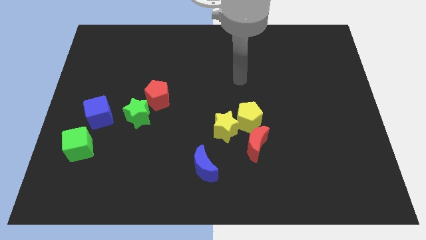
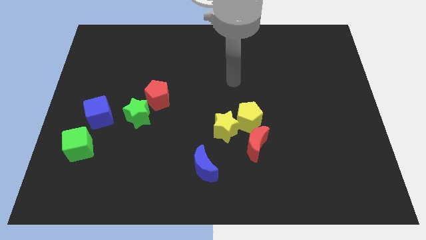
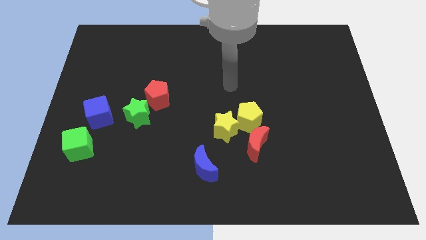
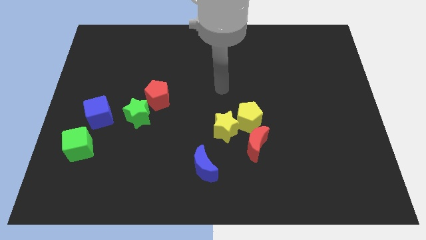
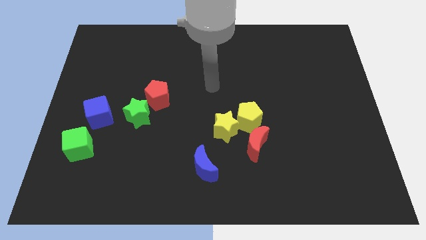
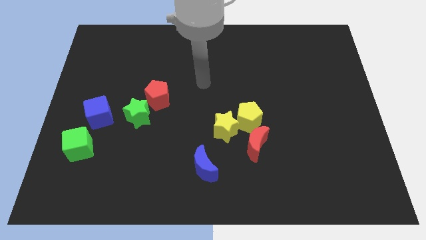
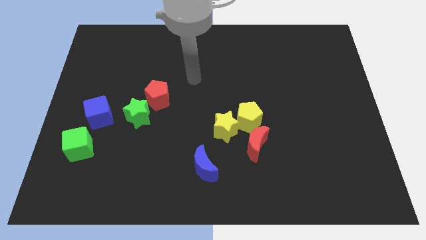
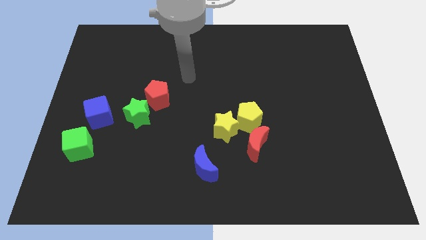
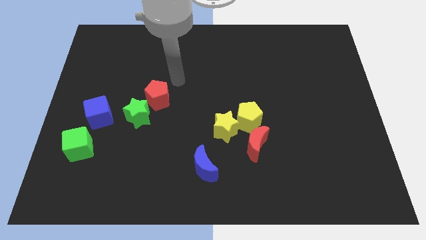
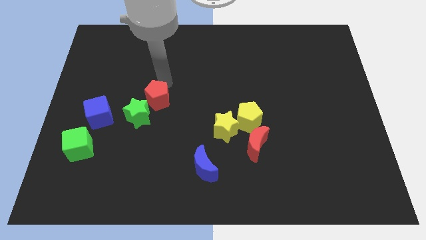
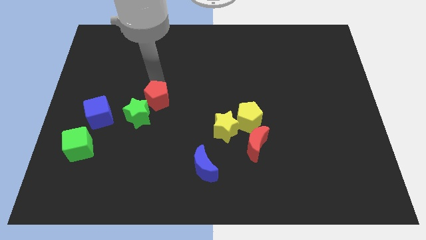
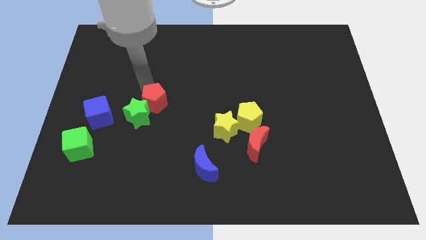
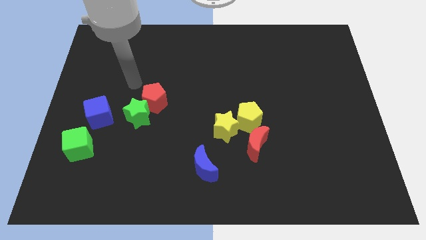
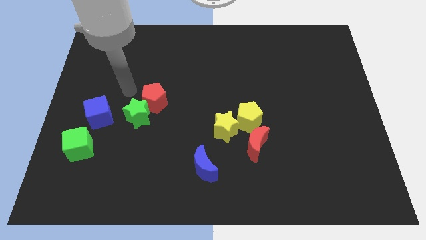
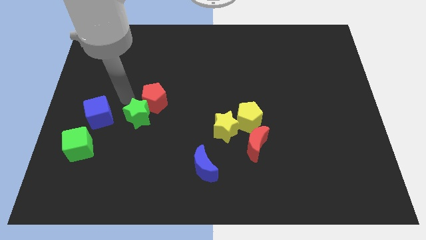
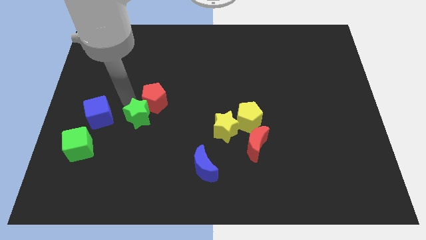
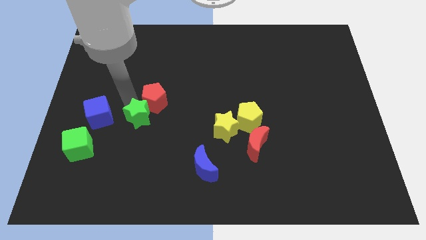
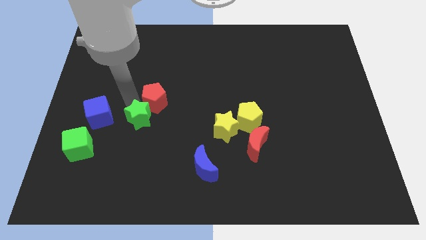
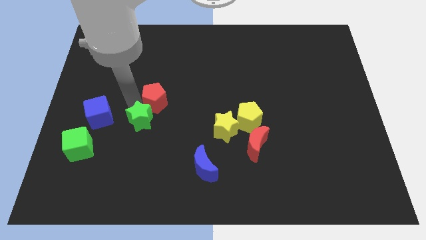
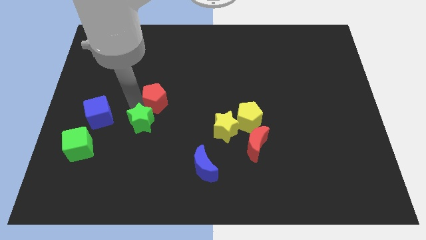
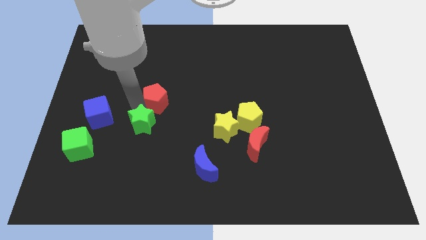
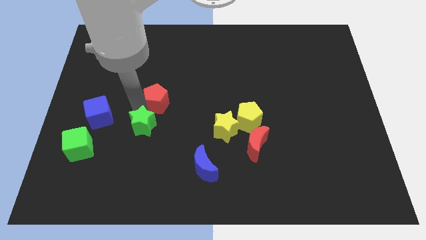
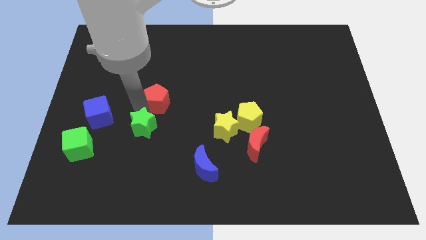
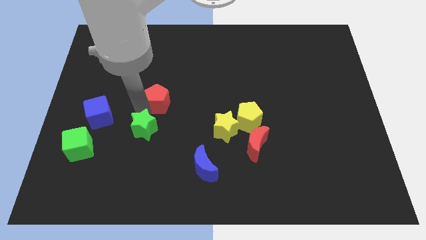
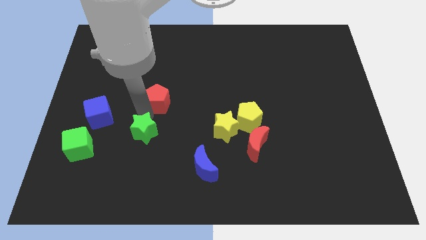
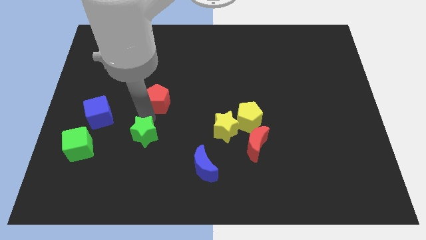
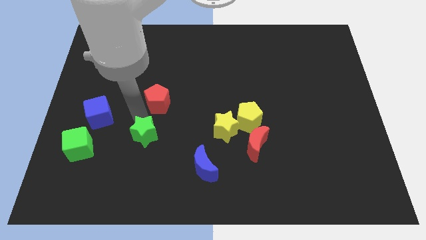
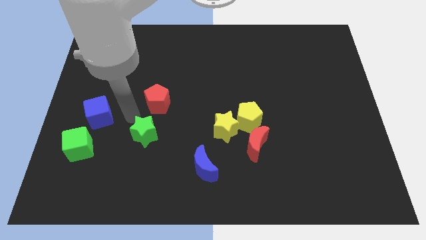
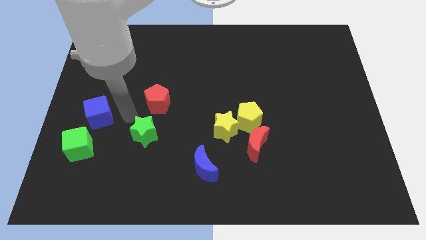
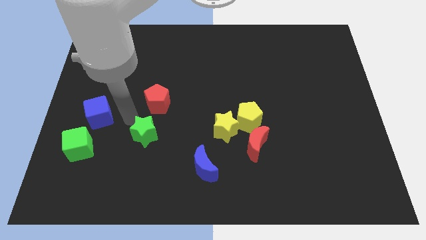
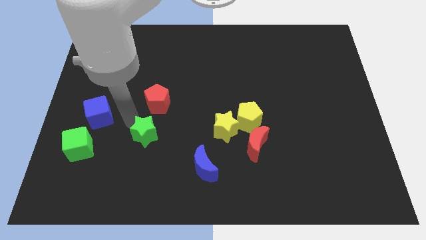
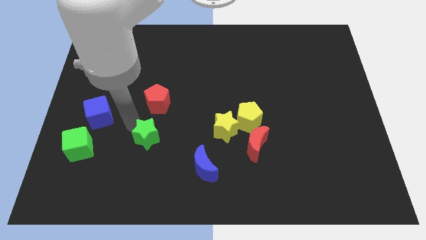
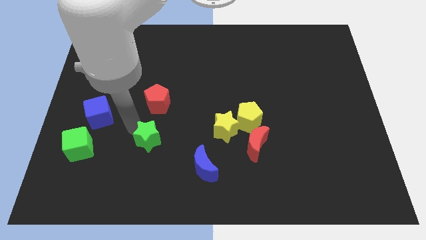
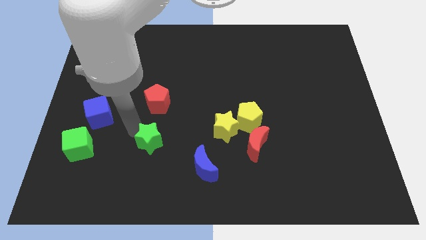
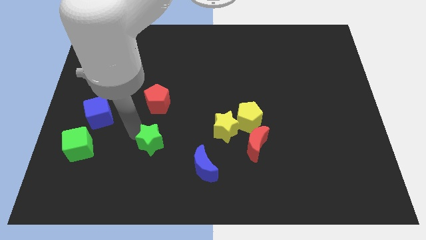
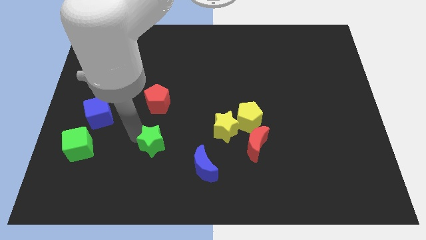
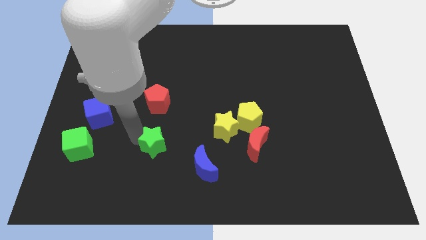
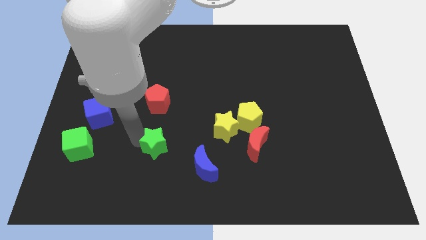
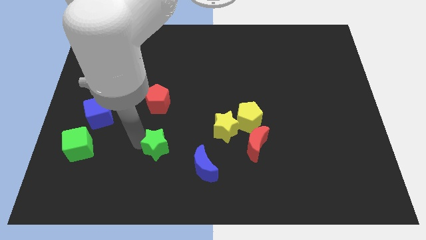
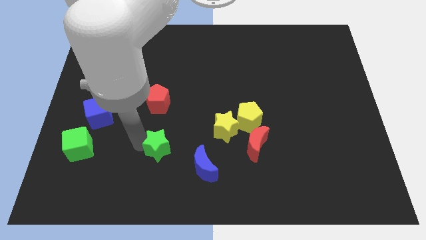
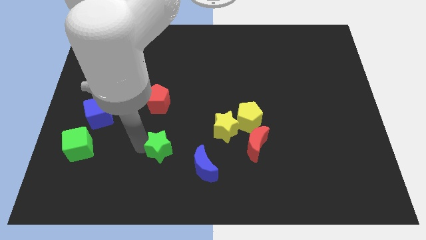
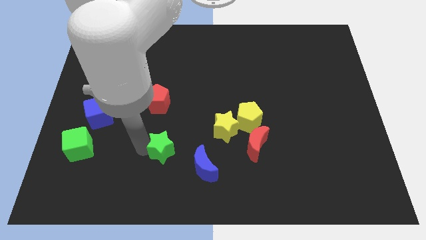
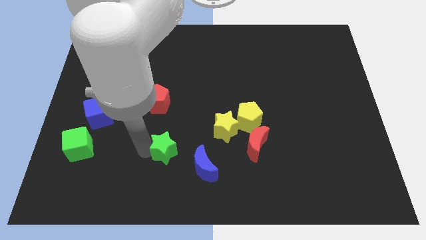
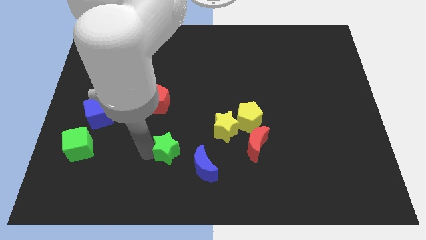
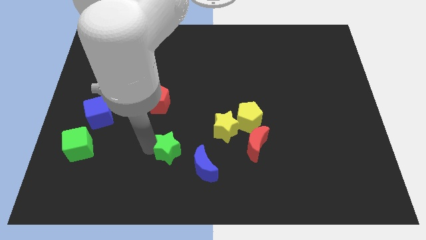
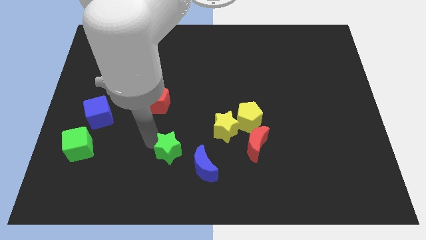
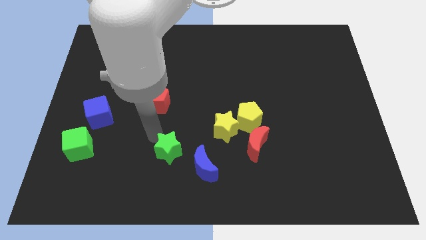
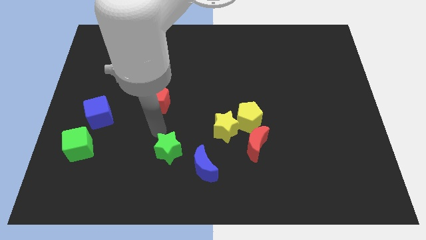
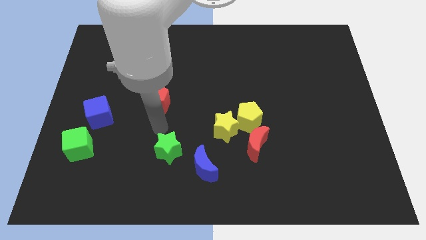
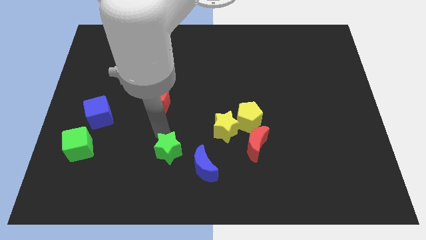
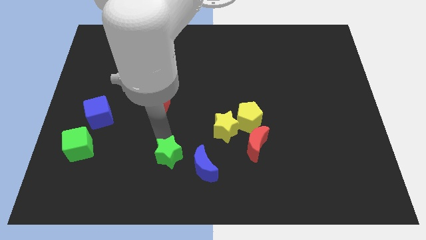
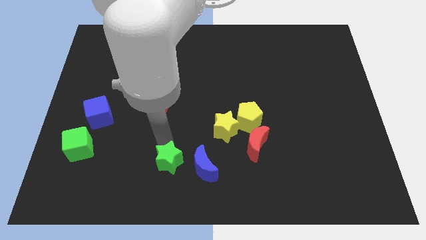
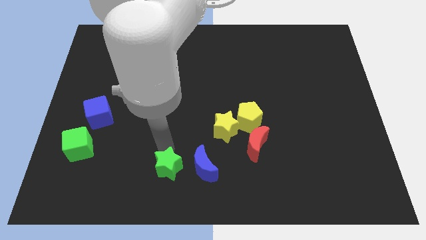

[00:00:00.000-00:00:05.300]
put the green star to the bottom
